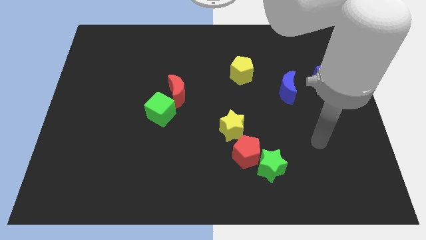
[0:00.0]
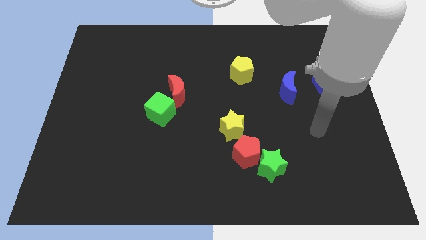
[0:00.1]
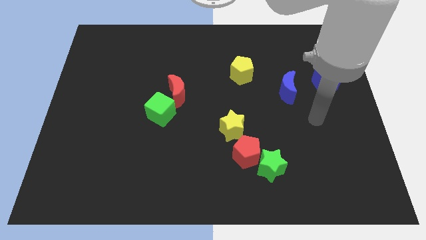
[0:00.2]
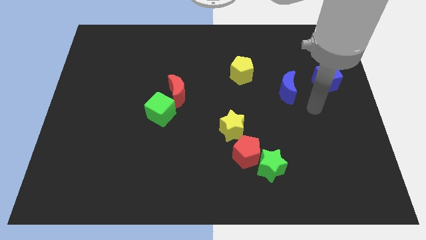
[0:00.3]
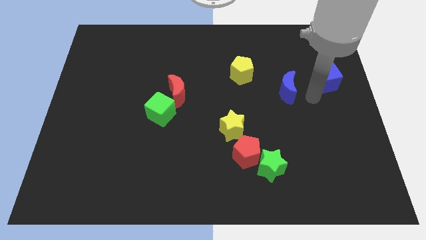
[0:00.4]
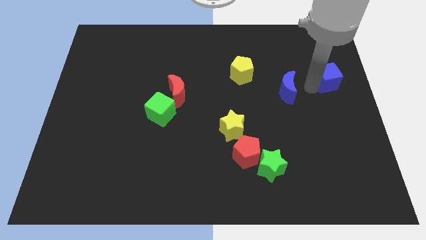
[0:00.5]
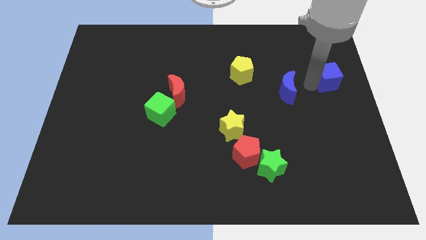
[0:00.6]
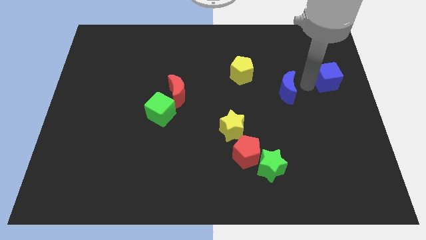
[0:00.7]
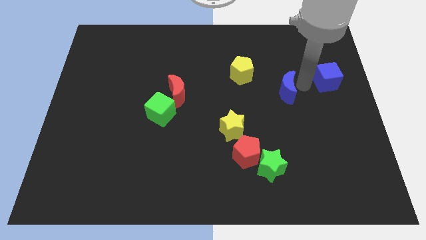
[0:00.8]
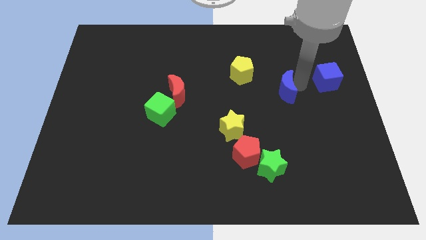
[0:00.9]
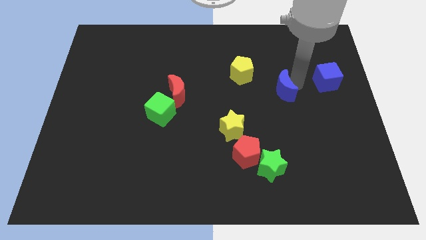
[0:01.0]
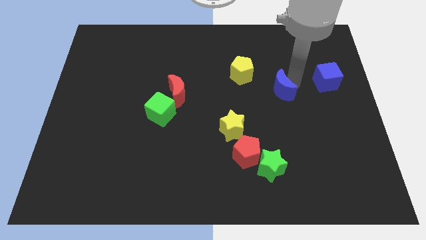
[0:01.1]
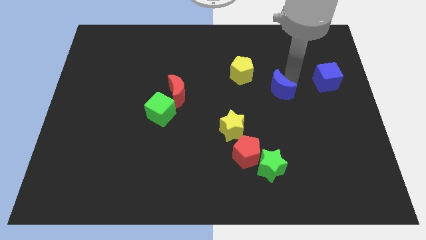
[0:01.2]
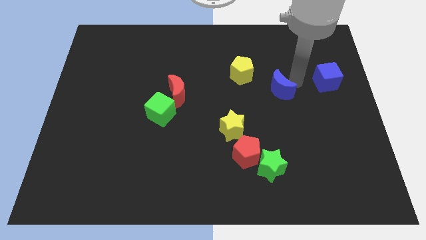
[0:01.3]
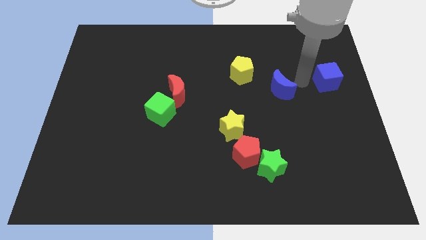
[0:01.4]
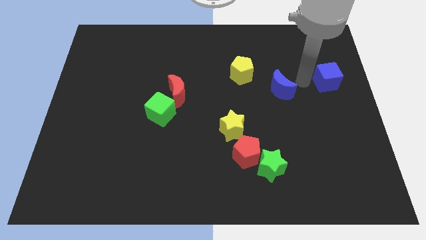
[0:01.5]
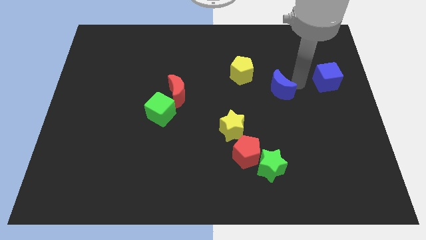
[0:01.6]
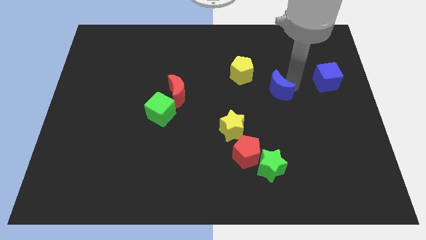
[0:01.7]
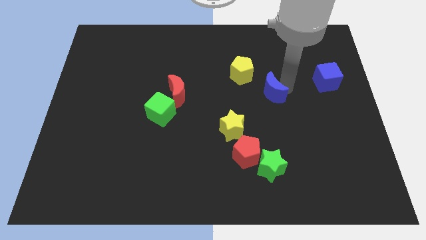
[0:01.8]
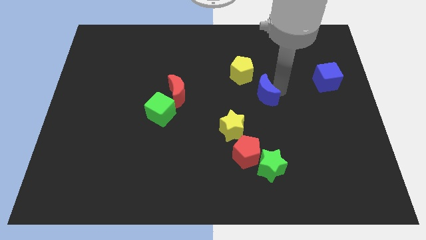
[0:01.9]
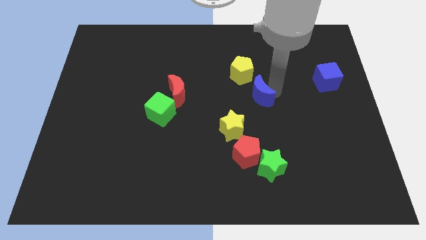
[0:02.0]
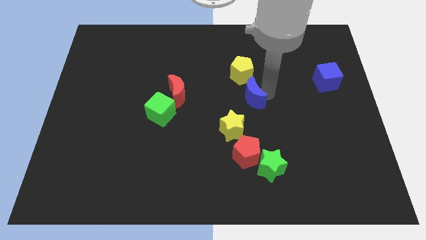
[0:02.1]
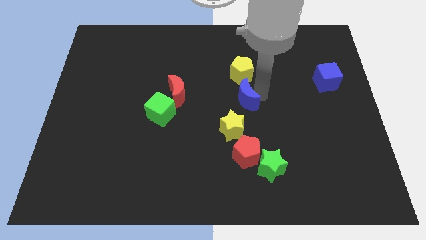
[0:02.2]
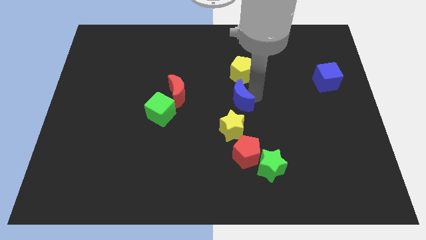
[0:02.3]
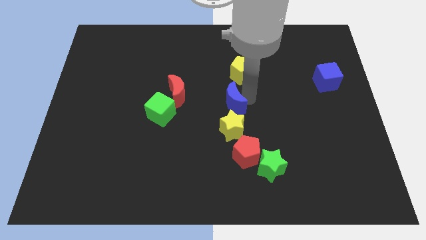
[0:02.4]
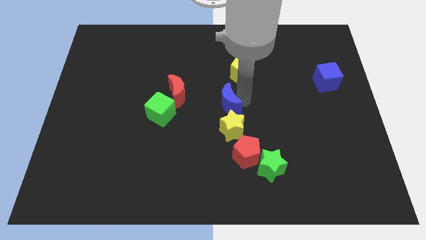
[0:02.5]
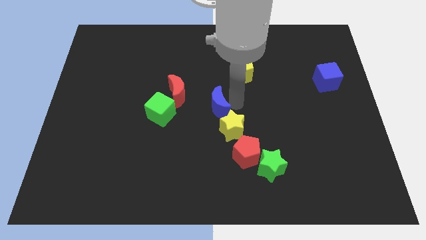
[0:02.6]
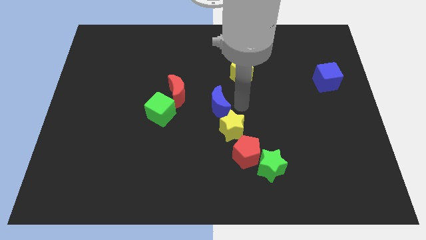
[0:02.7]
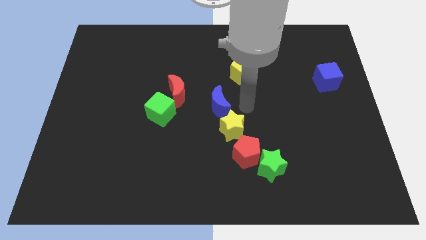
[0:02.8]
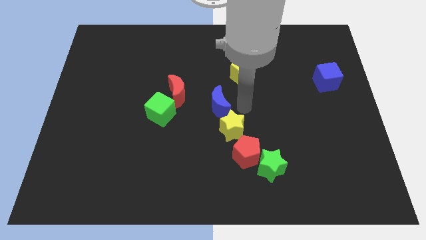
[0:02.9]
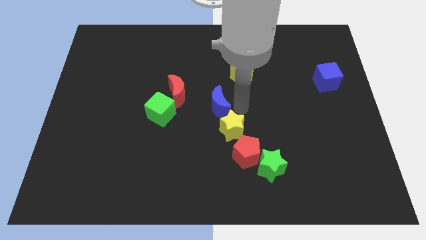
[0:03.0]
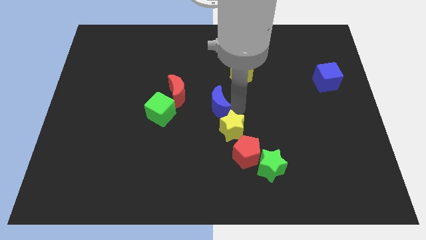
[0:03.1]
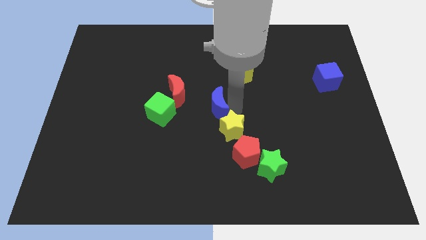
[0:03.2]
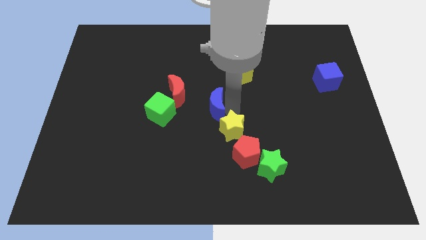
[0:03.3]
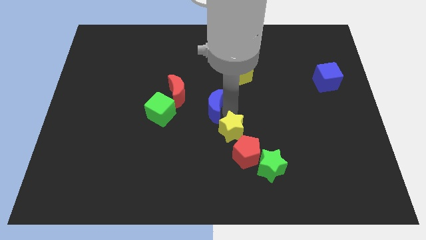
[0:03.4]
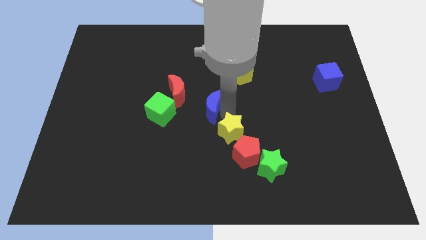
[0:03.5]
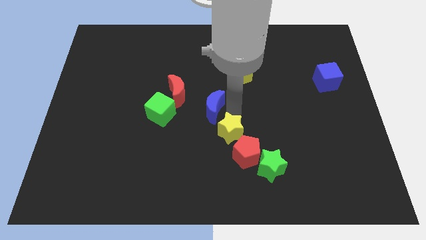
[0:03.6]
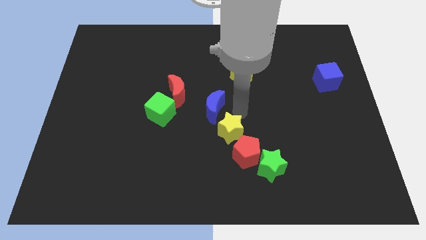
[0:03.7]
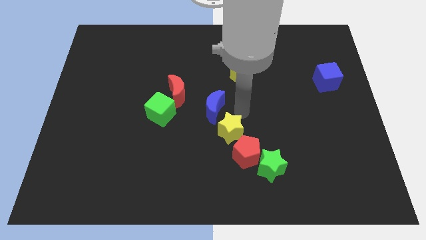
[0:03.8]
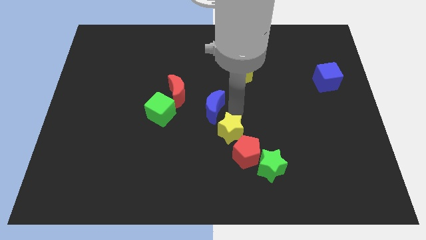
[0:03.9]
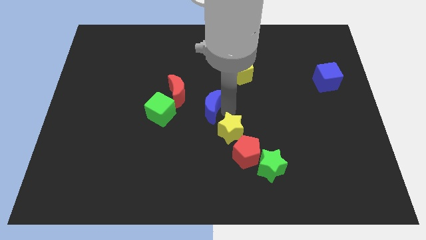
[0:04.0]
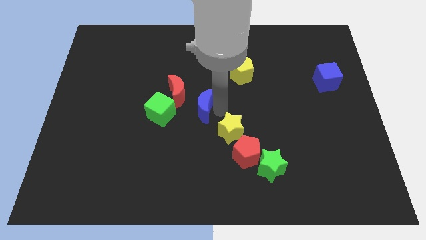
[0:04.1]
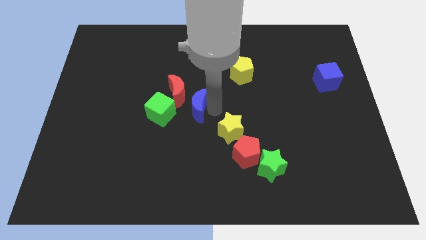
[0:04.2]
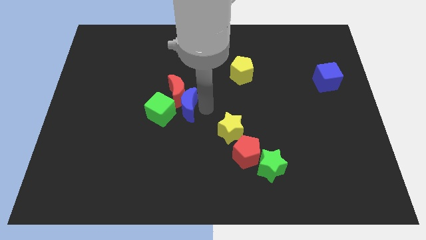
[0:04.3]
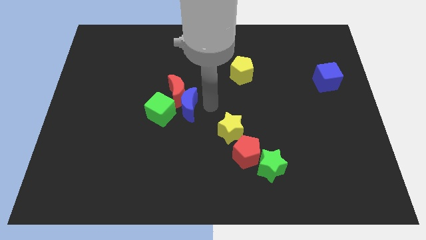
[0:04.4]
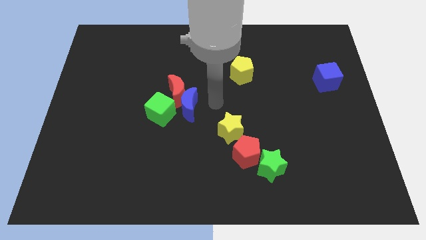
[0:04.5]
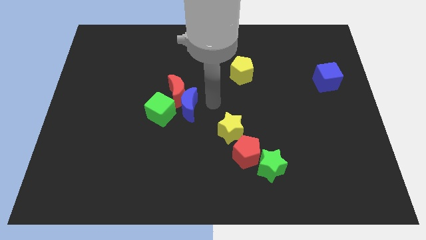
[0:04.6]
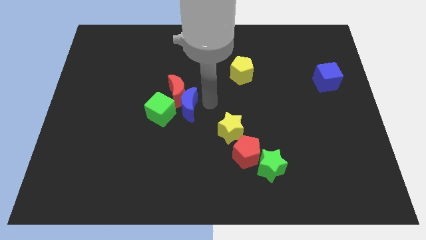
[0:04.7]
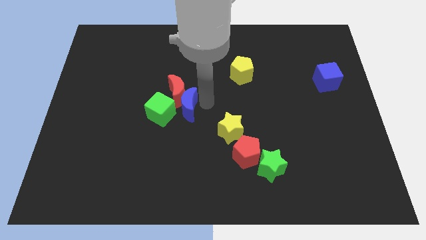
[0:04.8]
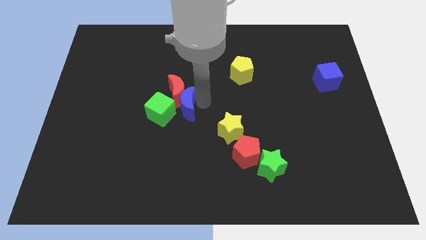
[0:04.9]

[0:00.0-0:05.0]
slide the blue moon towards the green cube

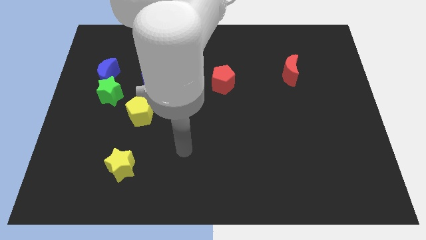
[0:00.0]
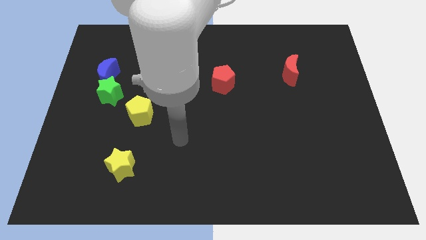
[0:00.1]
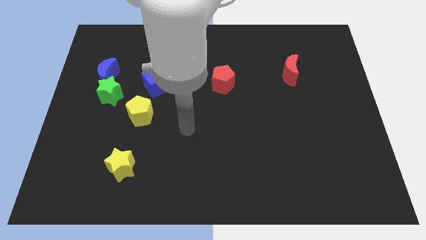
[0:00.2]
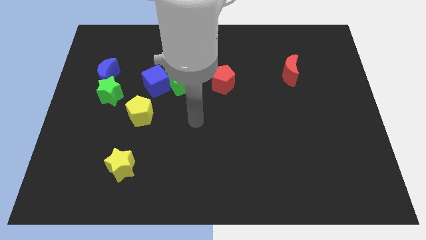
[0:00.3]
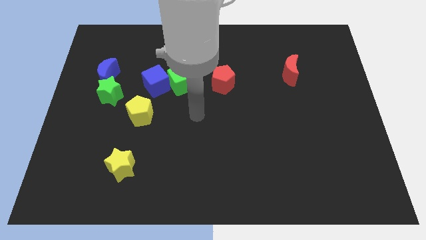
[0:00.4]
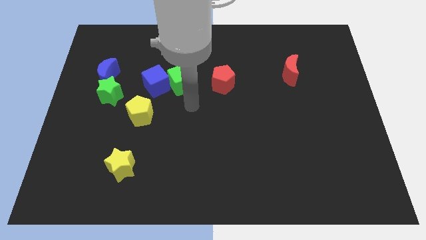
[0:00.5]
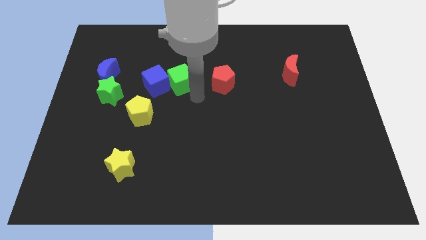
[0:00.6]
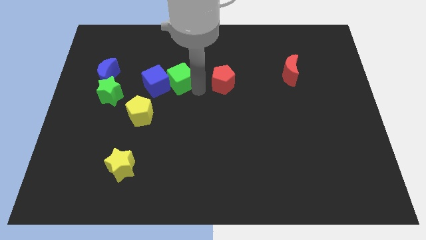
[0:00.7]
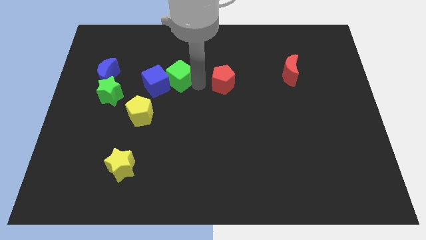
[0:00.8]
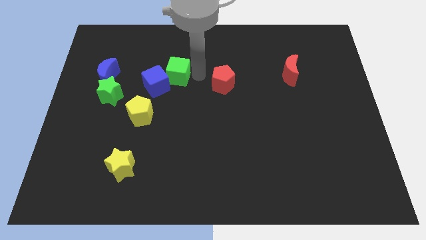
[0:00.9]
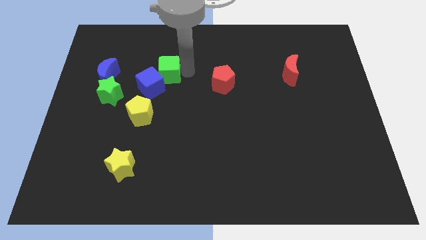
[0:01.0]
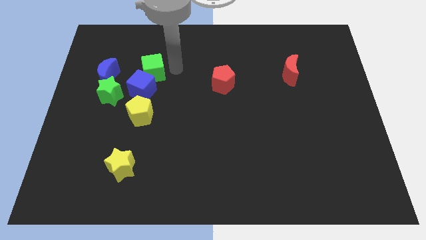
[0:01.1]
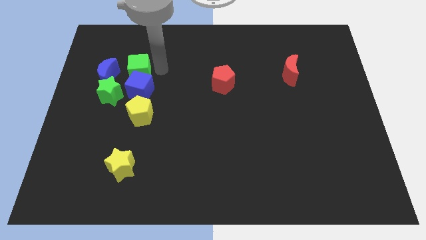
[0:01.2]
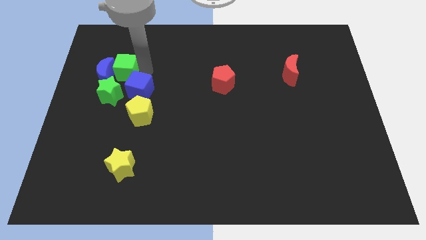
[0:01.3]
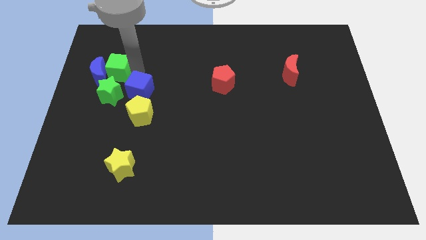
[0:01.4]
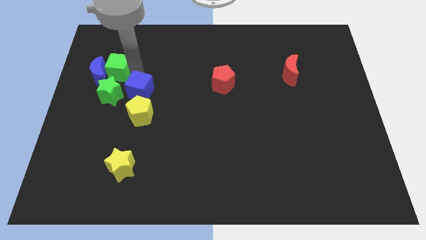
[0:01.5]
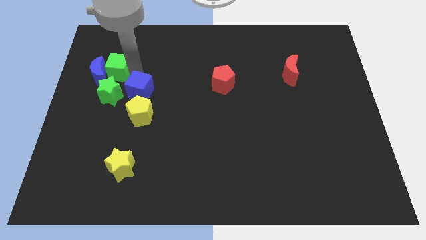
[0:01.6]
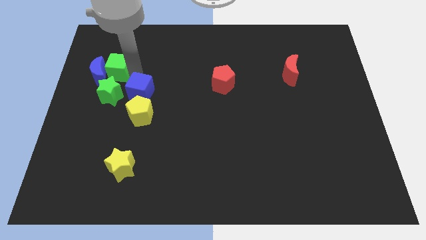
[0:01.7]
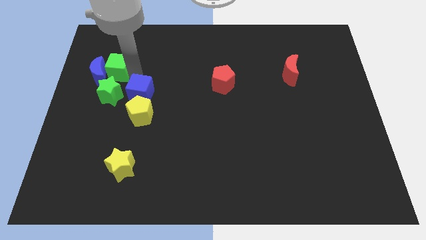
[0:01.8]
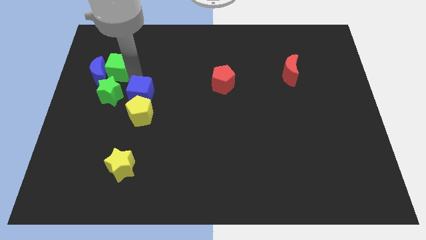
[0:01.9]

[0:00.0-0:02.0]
push the blue cube towards the yellow pentagon

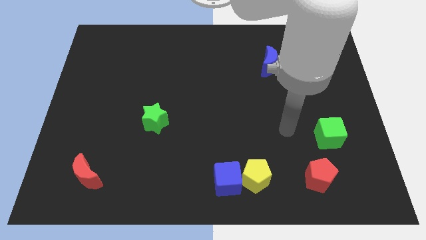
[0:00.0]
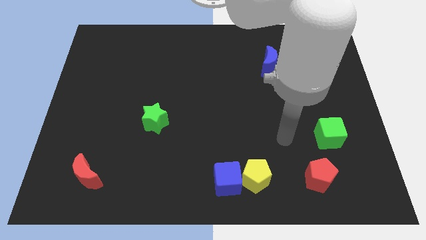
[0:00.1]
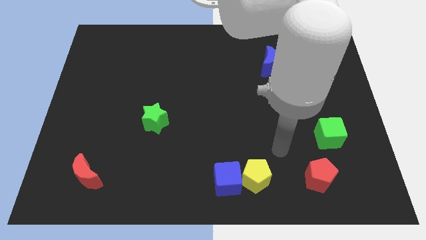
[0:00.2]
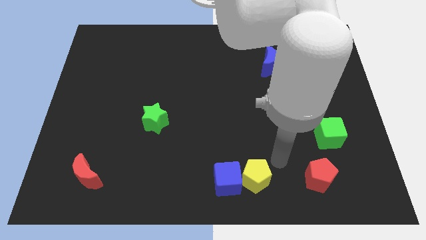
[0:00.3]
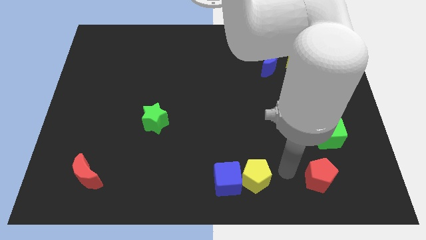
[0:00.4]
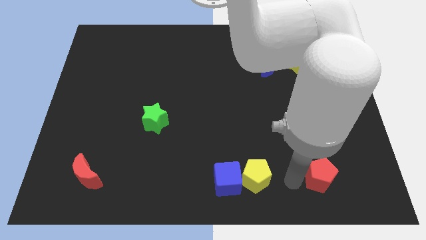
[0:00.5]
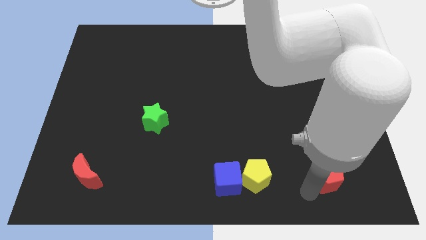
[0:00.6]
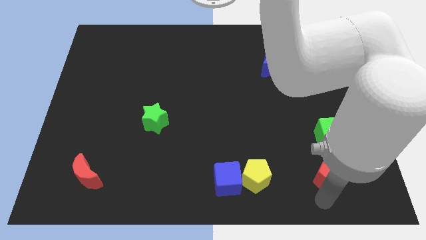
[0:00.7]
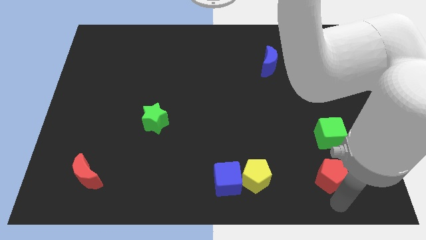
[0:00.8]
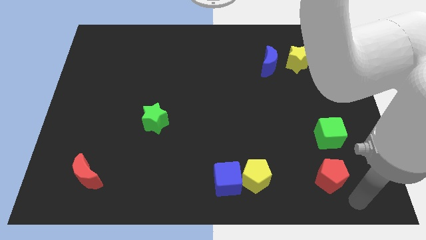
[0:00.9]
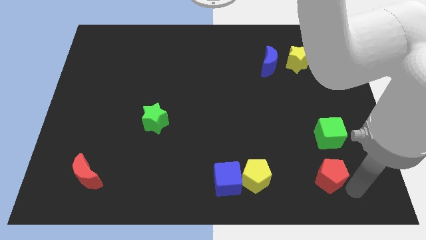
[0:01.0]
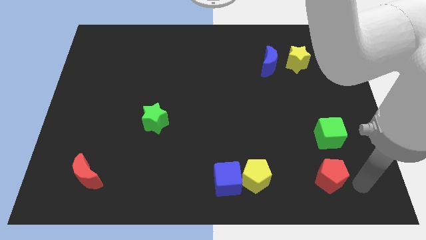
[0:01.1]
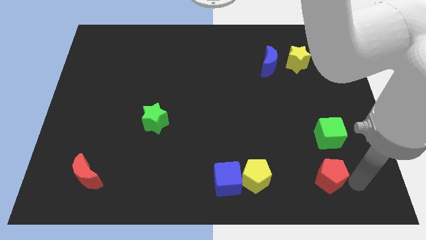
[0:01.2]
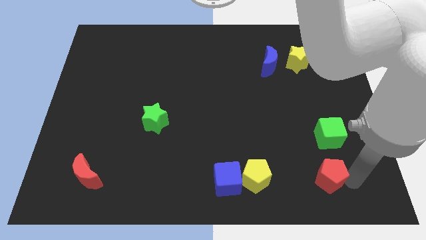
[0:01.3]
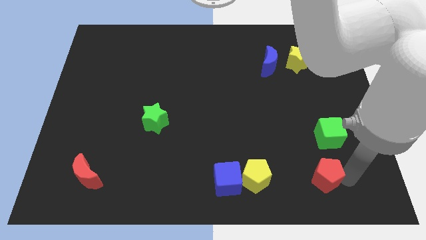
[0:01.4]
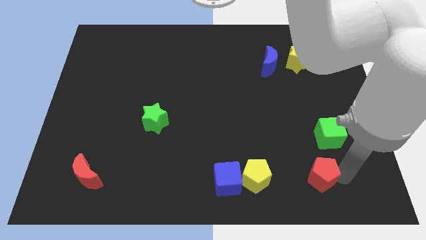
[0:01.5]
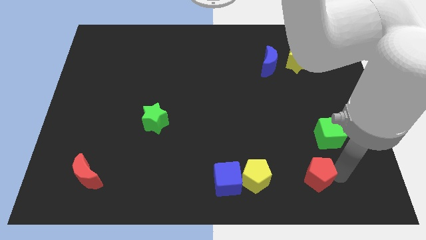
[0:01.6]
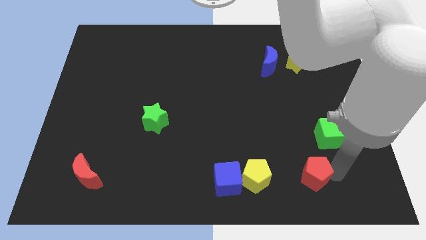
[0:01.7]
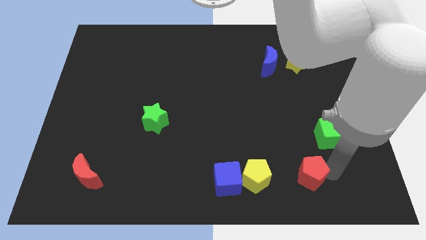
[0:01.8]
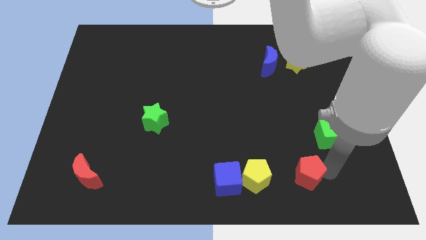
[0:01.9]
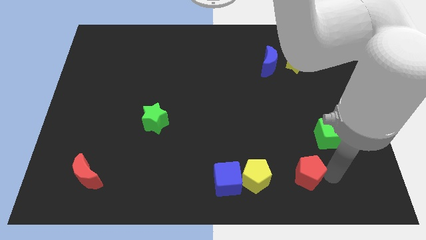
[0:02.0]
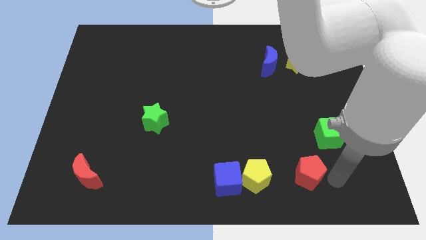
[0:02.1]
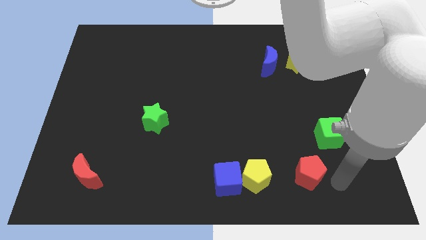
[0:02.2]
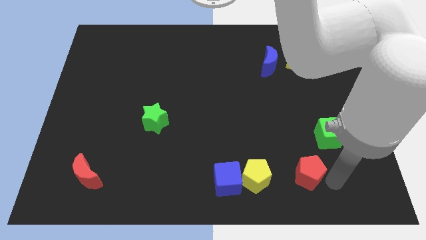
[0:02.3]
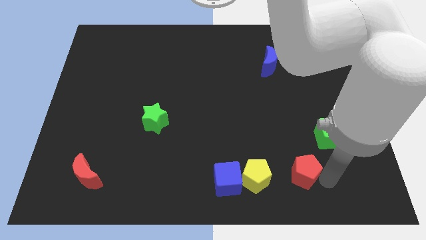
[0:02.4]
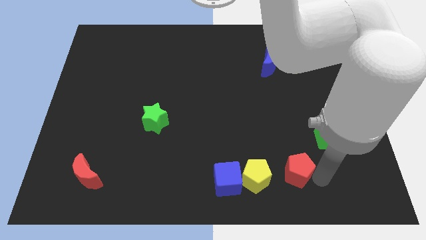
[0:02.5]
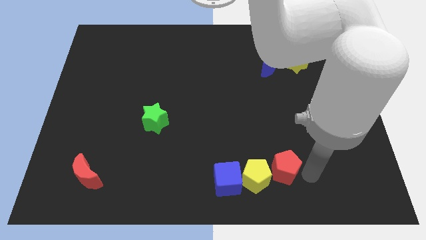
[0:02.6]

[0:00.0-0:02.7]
push the red pentagon towards the yellow pentagon
